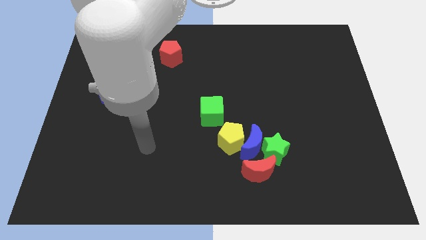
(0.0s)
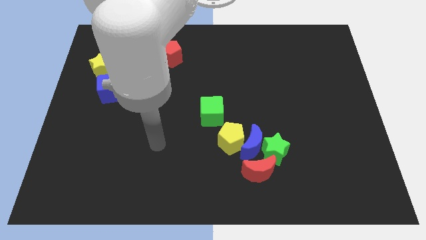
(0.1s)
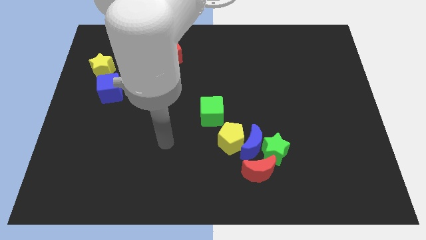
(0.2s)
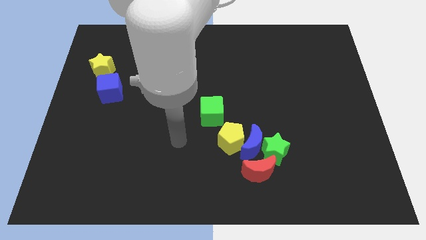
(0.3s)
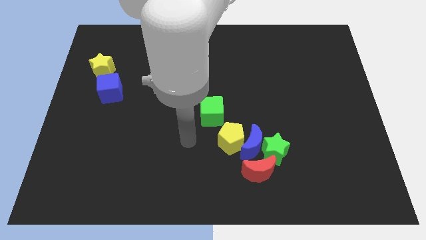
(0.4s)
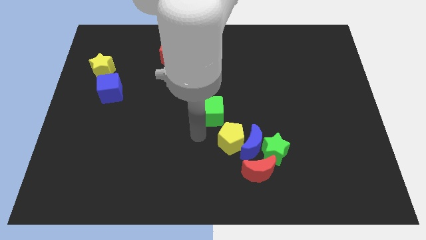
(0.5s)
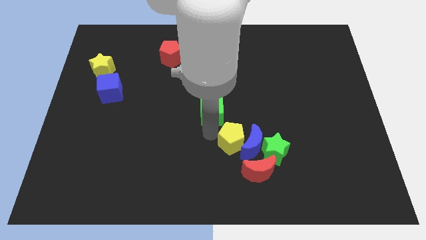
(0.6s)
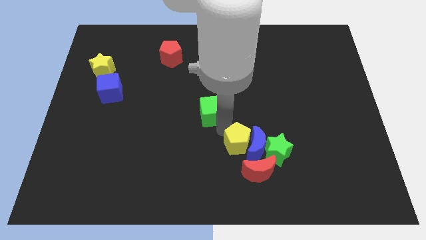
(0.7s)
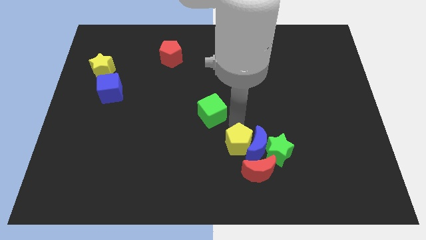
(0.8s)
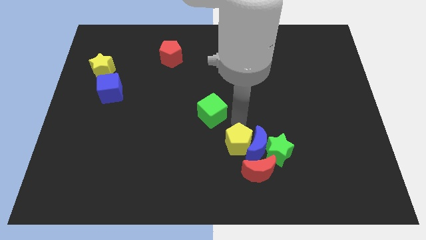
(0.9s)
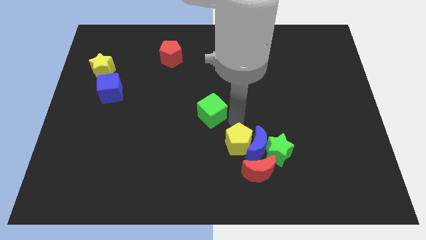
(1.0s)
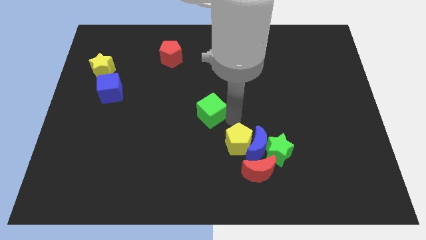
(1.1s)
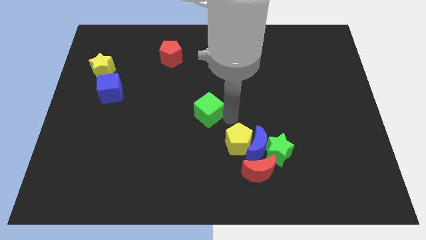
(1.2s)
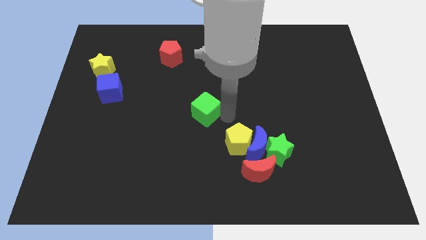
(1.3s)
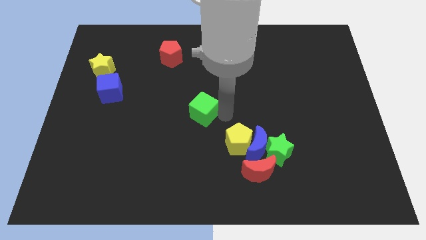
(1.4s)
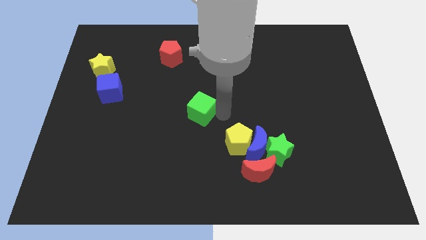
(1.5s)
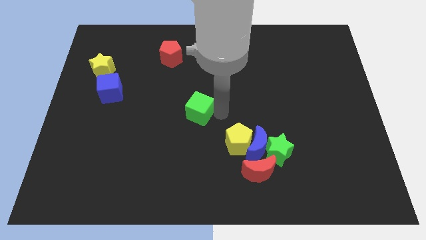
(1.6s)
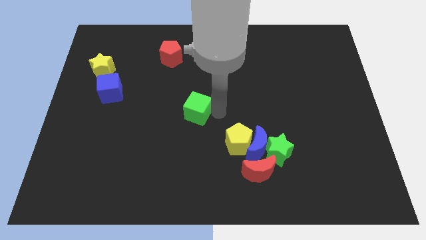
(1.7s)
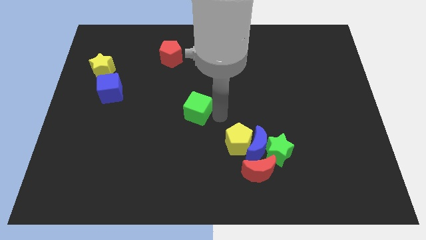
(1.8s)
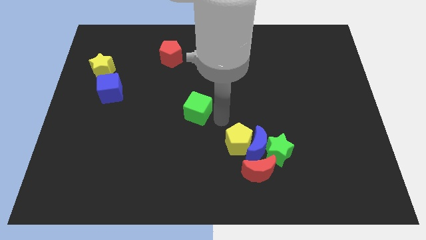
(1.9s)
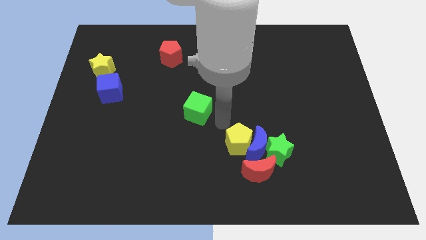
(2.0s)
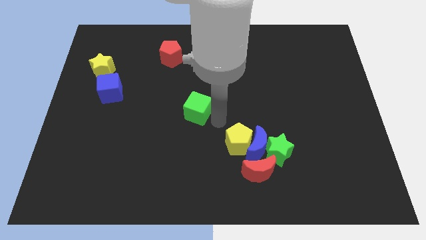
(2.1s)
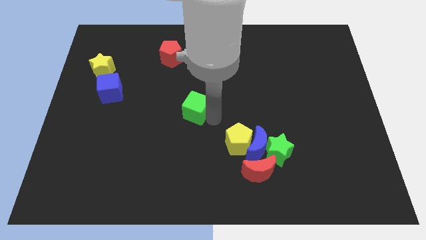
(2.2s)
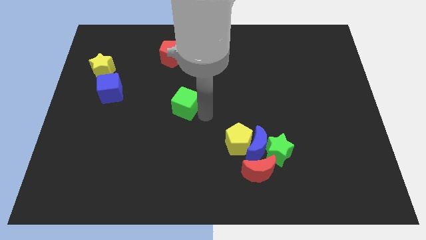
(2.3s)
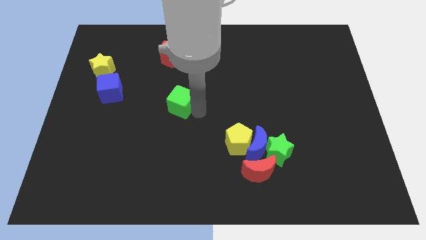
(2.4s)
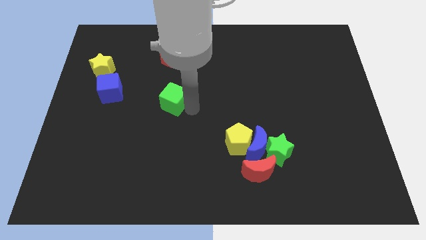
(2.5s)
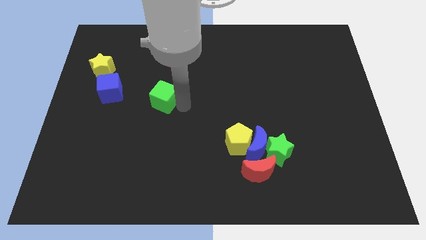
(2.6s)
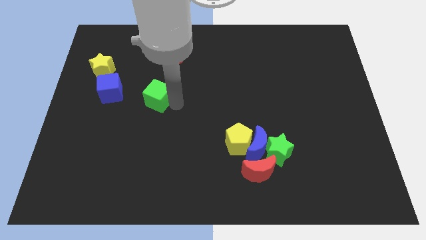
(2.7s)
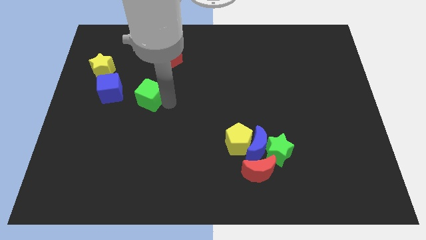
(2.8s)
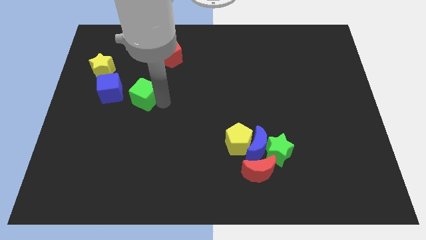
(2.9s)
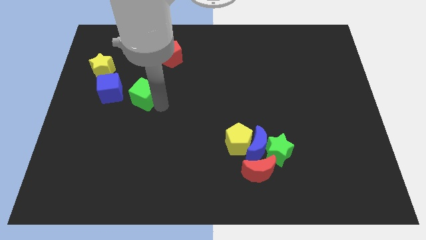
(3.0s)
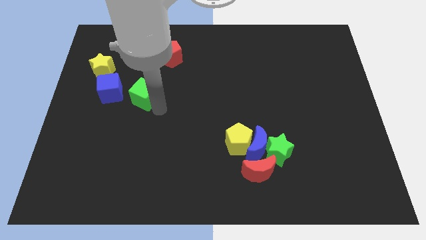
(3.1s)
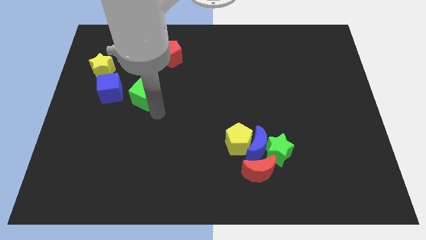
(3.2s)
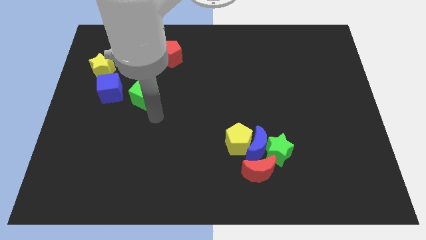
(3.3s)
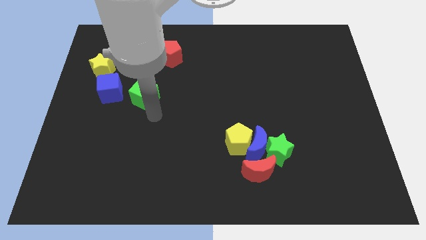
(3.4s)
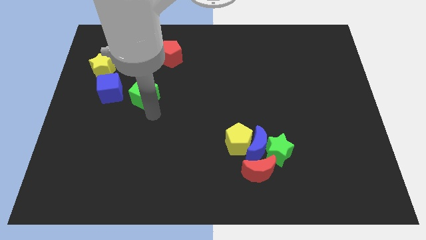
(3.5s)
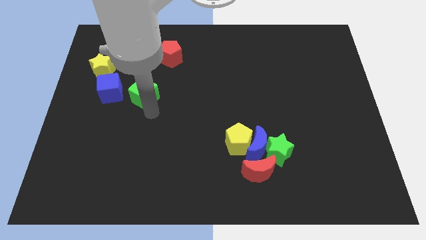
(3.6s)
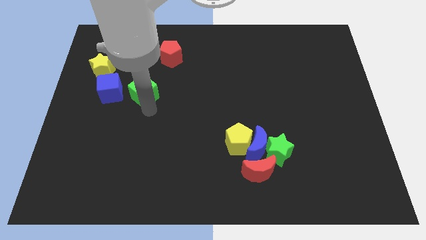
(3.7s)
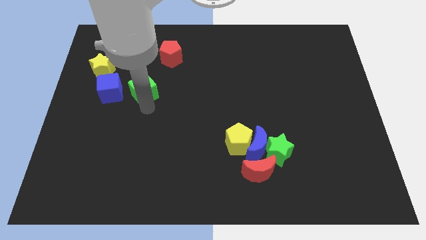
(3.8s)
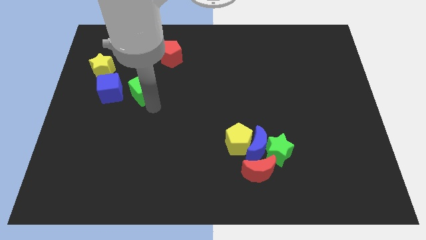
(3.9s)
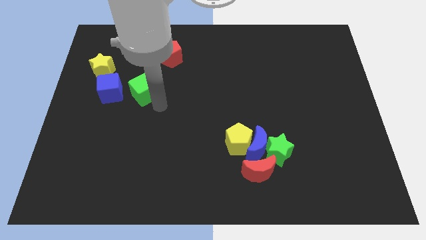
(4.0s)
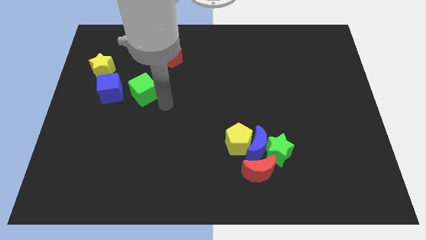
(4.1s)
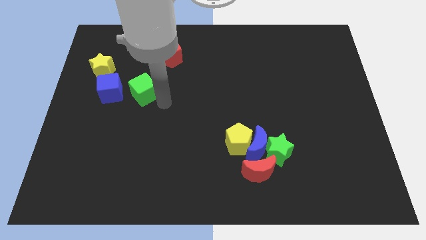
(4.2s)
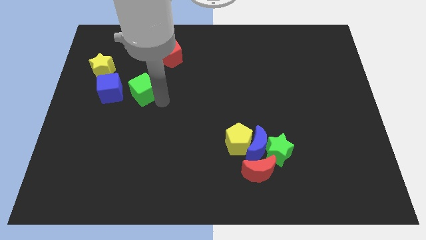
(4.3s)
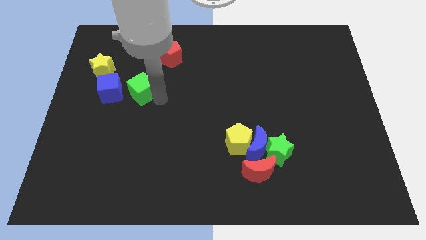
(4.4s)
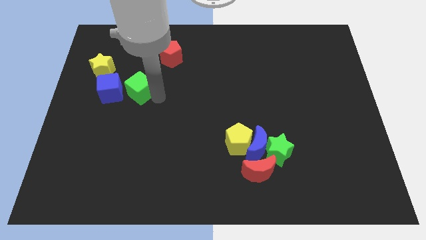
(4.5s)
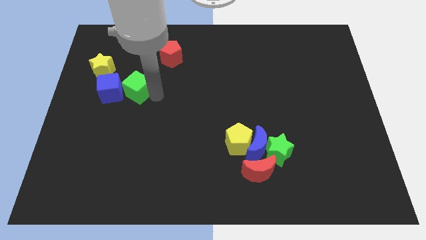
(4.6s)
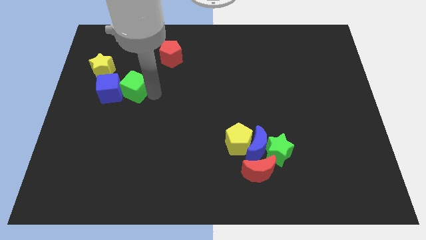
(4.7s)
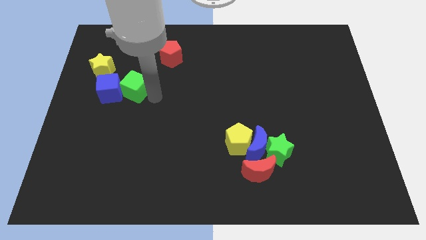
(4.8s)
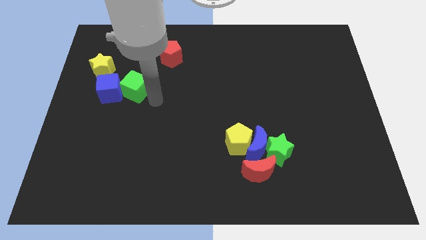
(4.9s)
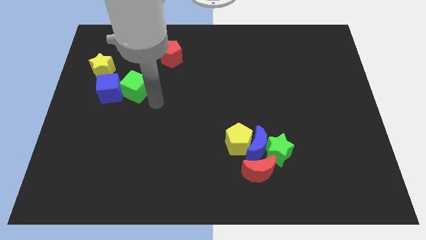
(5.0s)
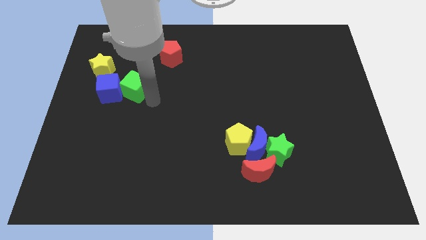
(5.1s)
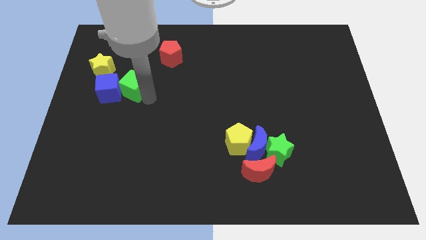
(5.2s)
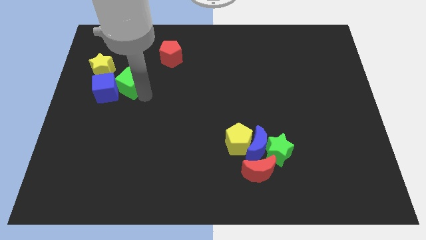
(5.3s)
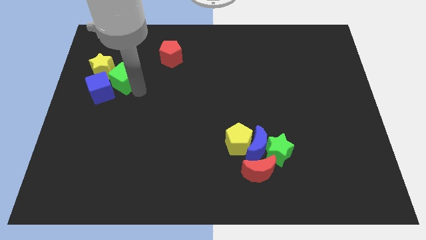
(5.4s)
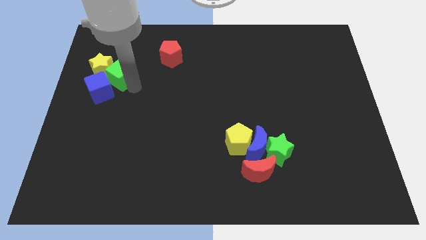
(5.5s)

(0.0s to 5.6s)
put the green cube close to the yellow star

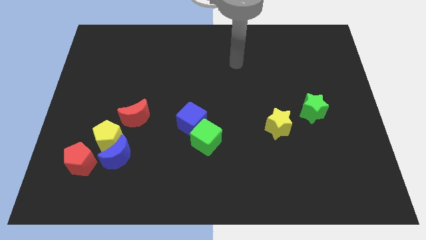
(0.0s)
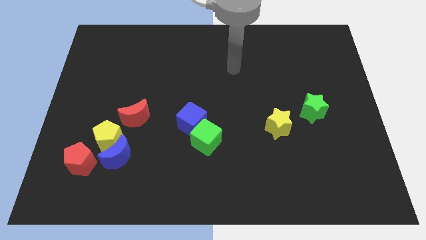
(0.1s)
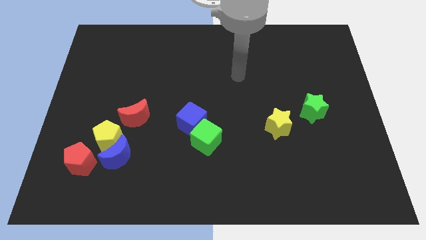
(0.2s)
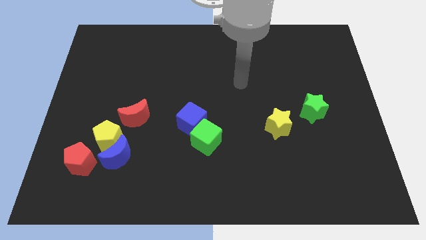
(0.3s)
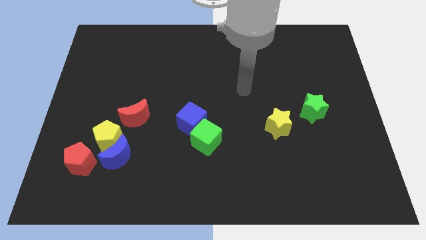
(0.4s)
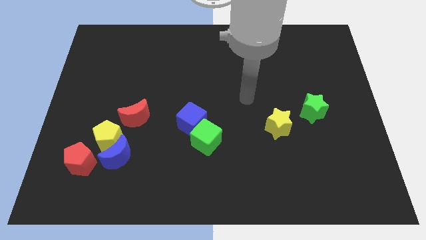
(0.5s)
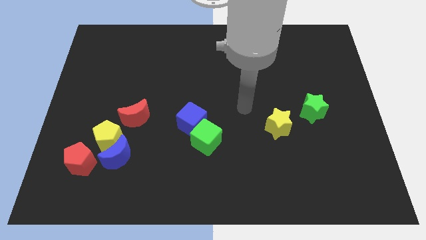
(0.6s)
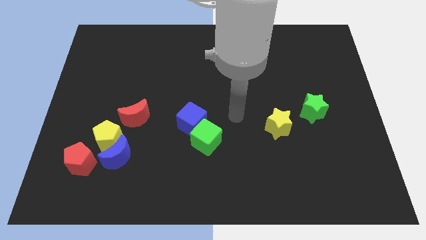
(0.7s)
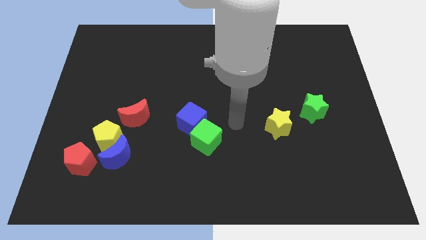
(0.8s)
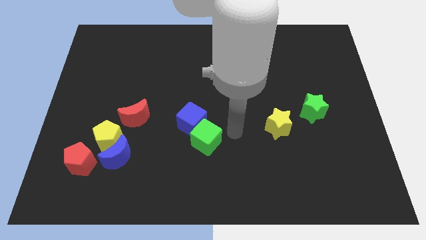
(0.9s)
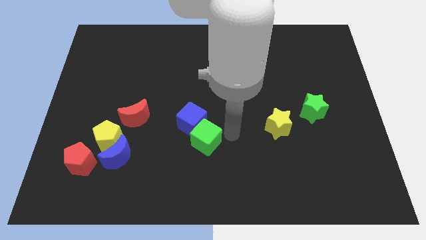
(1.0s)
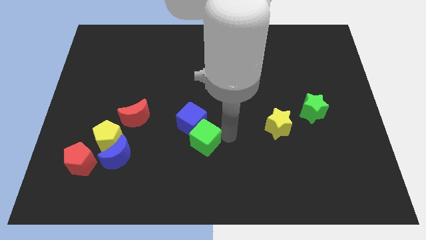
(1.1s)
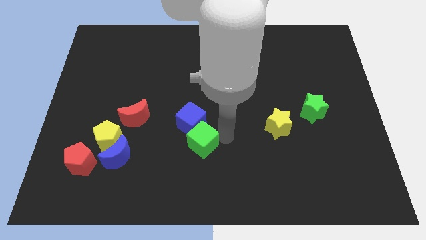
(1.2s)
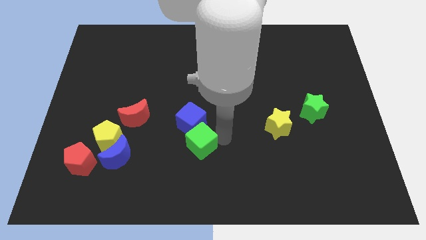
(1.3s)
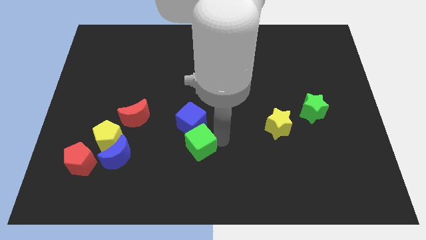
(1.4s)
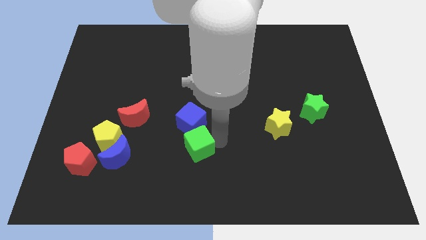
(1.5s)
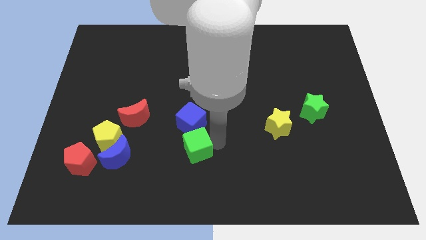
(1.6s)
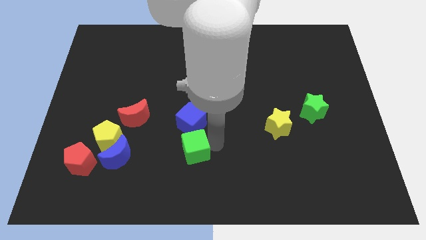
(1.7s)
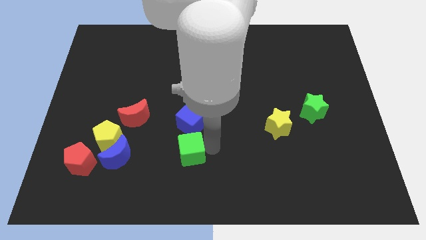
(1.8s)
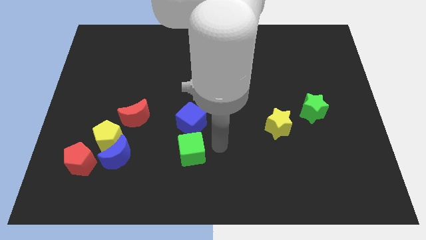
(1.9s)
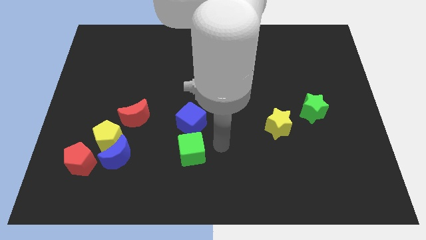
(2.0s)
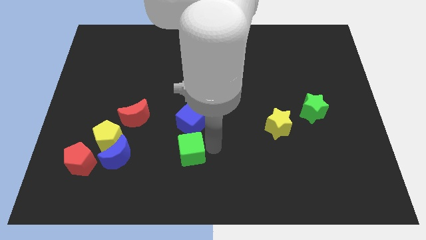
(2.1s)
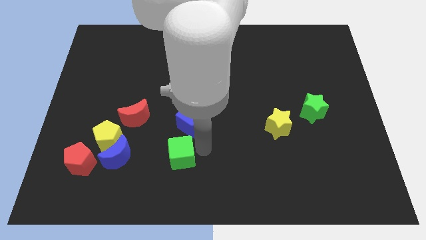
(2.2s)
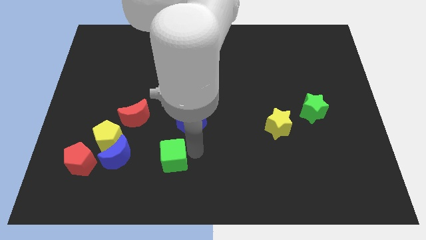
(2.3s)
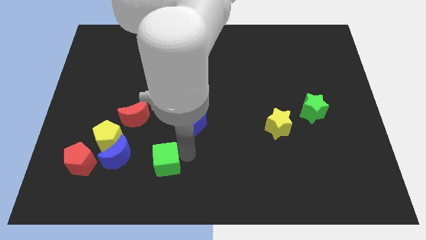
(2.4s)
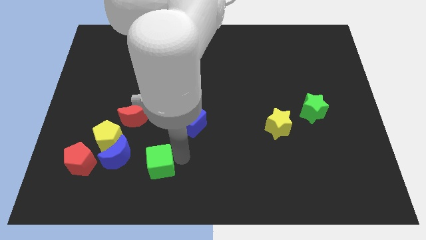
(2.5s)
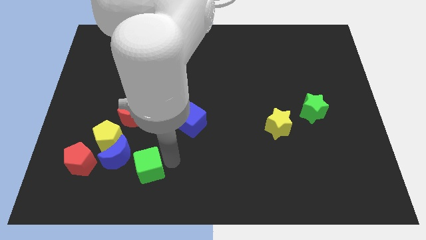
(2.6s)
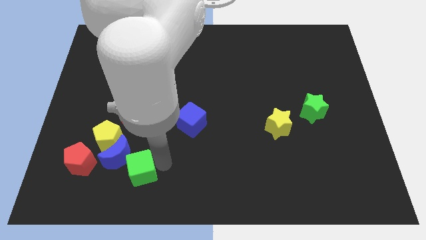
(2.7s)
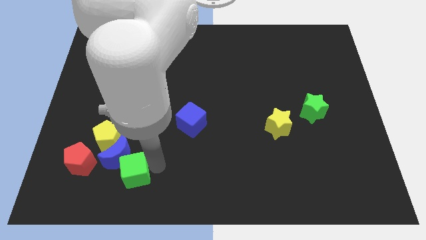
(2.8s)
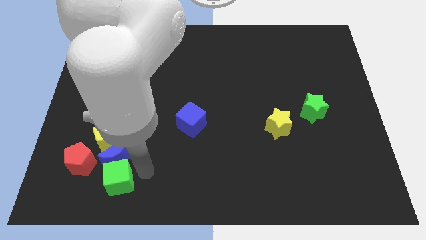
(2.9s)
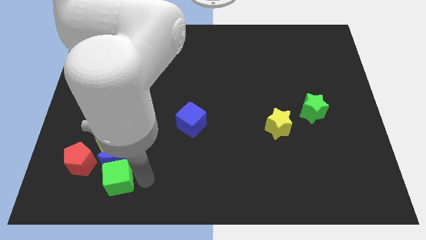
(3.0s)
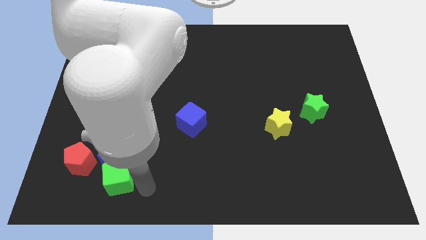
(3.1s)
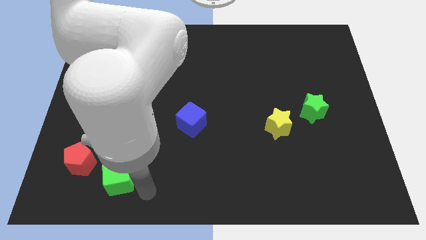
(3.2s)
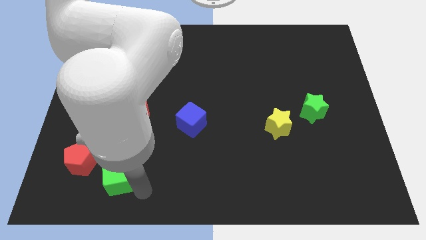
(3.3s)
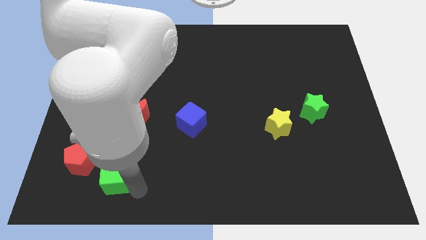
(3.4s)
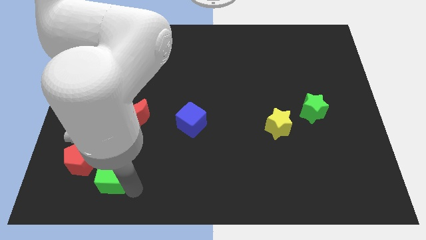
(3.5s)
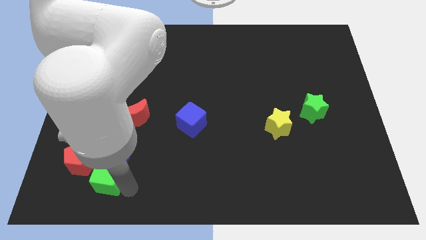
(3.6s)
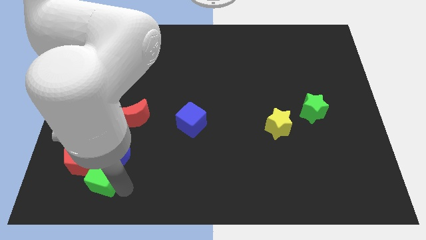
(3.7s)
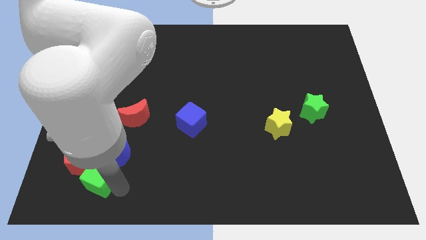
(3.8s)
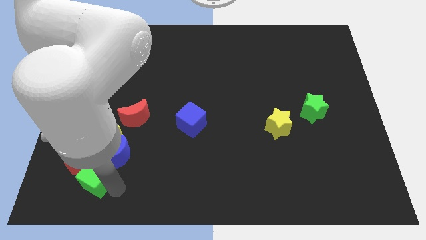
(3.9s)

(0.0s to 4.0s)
slide the green cube to the red pentagon
